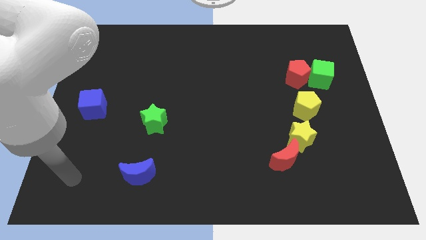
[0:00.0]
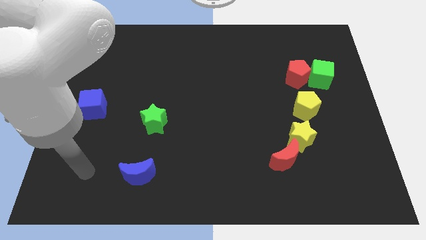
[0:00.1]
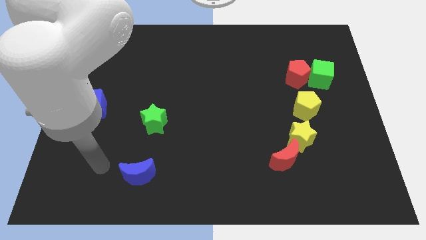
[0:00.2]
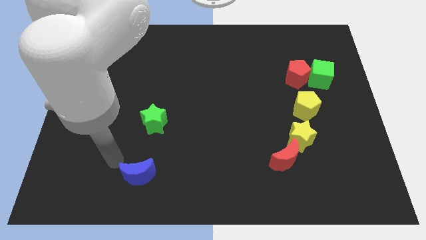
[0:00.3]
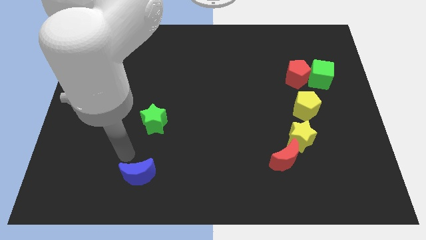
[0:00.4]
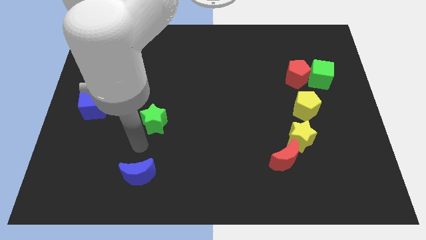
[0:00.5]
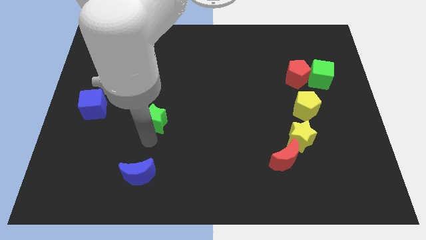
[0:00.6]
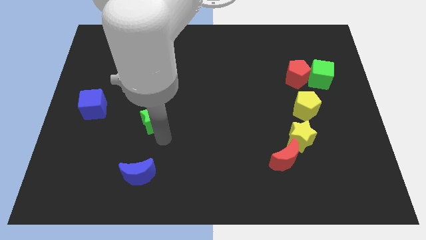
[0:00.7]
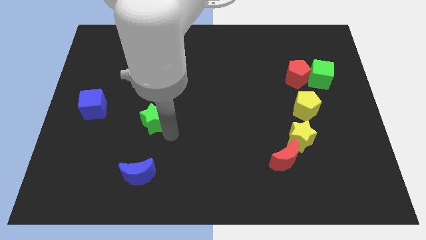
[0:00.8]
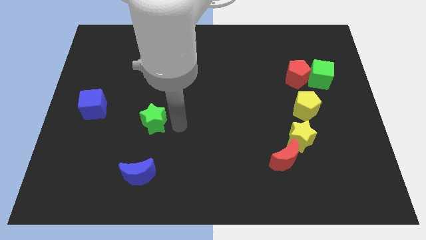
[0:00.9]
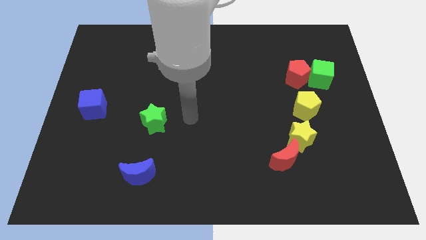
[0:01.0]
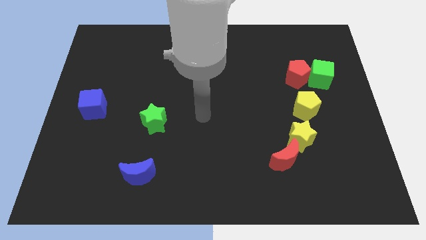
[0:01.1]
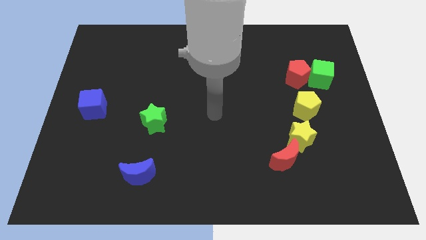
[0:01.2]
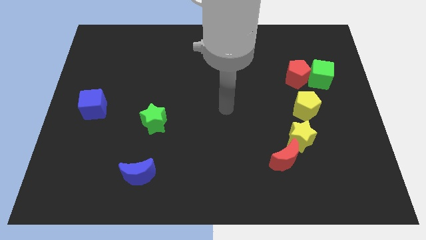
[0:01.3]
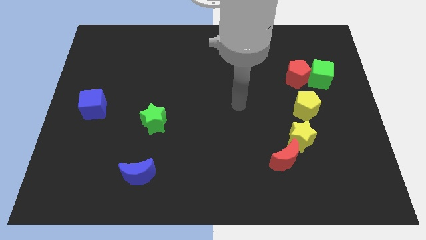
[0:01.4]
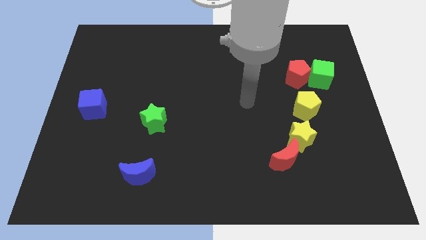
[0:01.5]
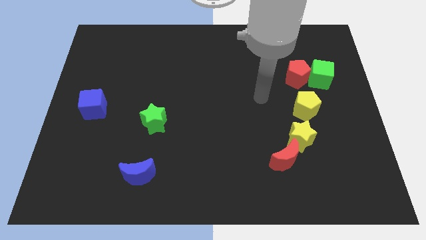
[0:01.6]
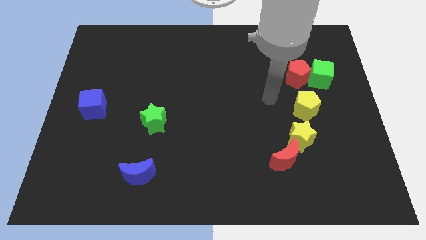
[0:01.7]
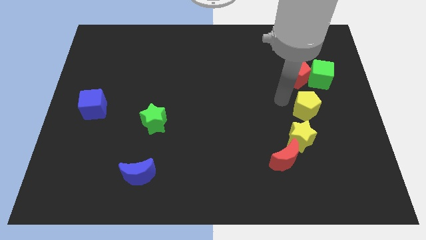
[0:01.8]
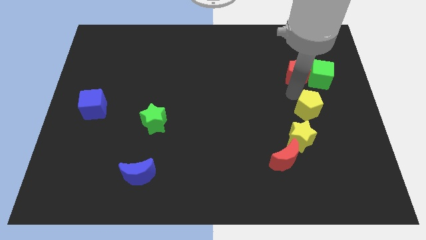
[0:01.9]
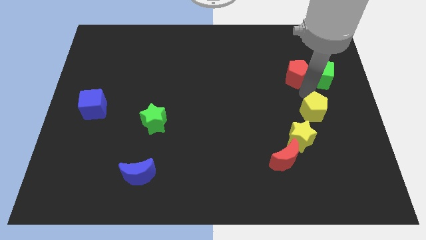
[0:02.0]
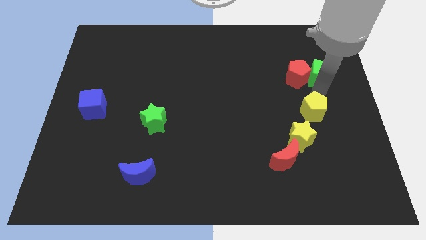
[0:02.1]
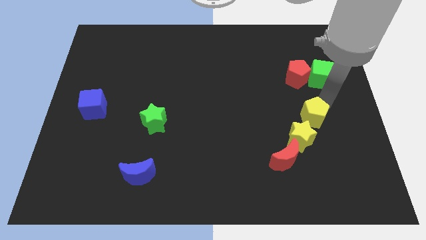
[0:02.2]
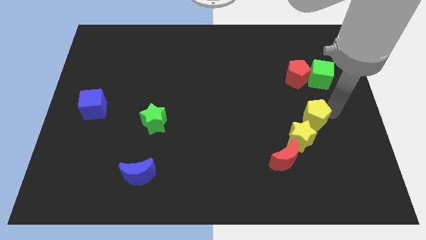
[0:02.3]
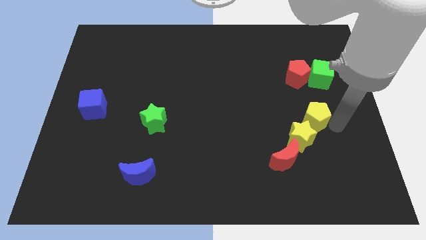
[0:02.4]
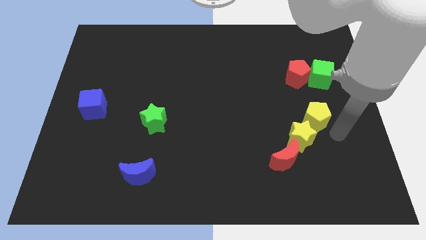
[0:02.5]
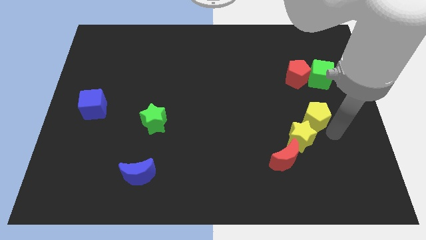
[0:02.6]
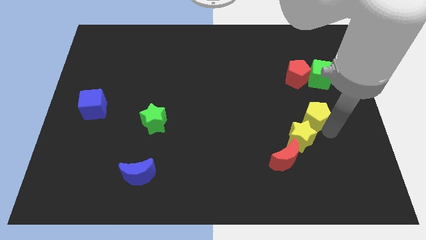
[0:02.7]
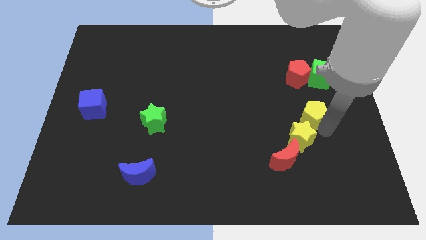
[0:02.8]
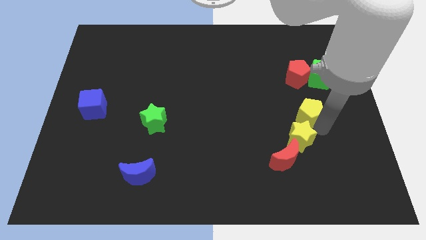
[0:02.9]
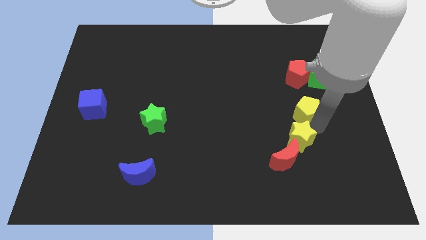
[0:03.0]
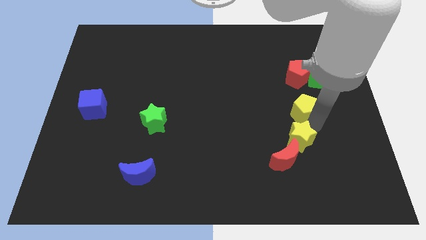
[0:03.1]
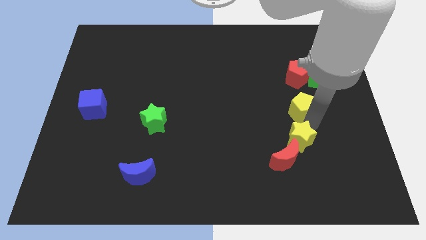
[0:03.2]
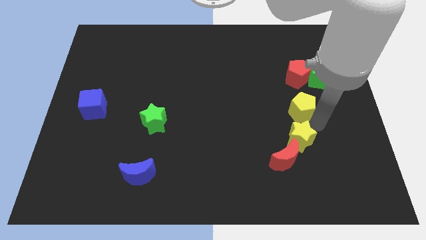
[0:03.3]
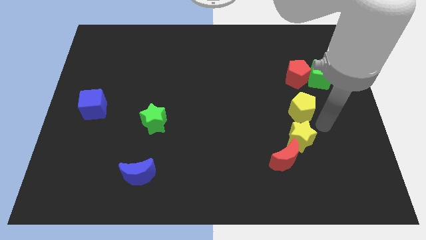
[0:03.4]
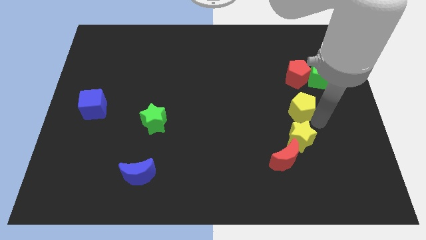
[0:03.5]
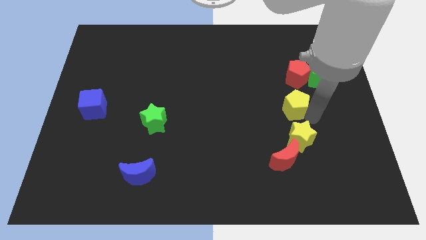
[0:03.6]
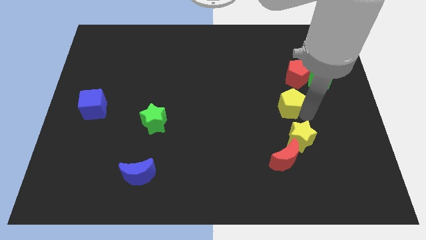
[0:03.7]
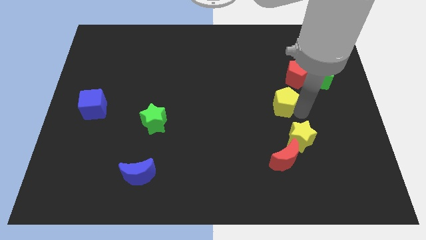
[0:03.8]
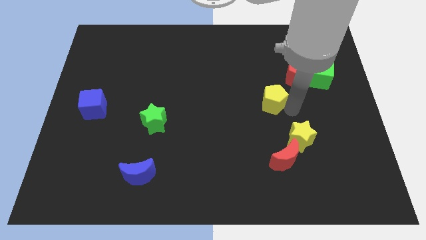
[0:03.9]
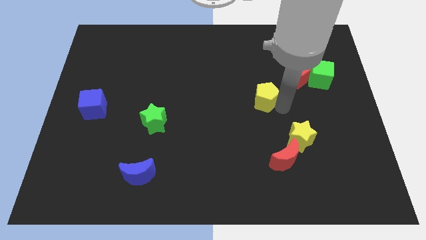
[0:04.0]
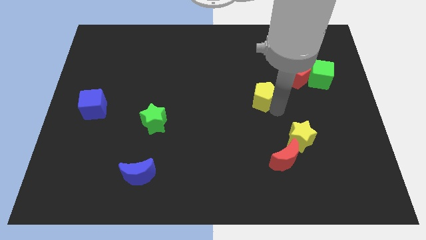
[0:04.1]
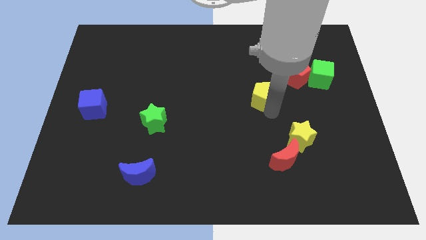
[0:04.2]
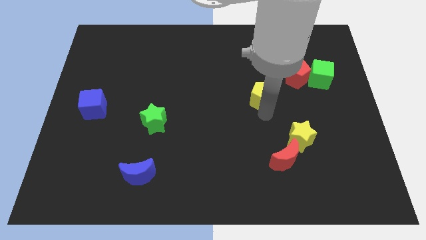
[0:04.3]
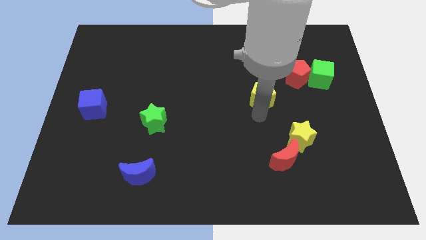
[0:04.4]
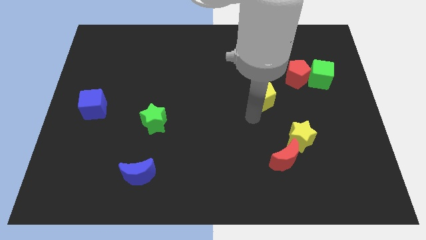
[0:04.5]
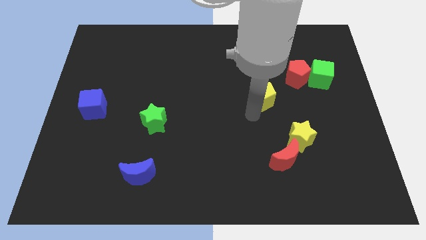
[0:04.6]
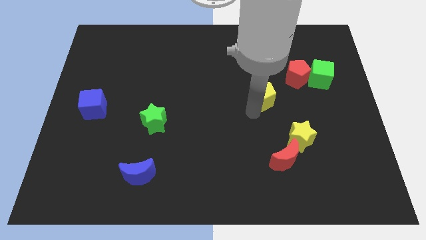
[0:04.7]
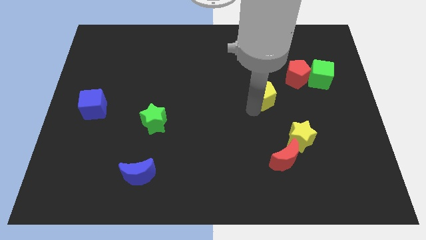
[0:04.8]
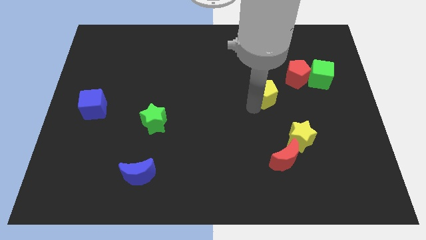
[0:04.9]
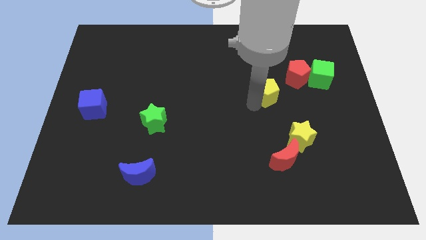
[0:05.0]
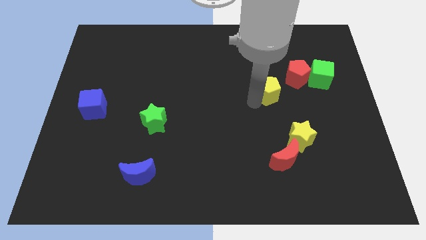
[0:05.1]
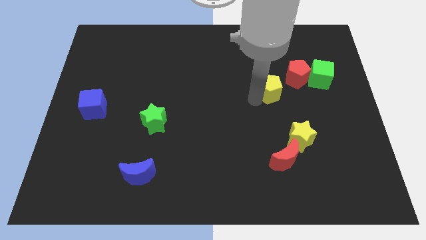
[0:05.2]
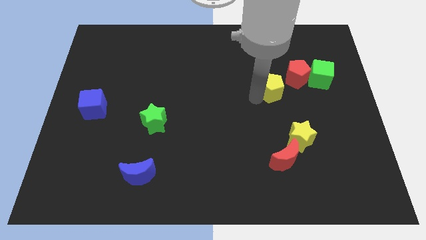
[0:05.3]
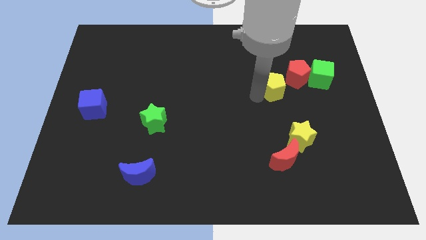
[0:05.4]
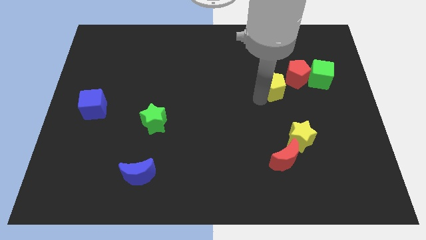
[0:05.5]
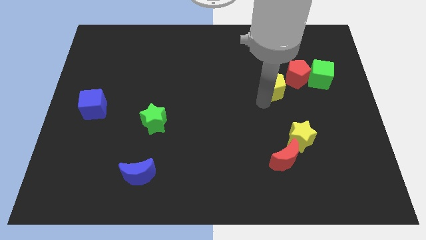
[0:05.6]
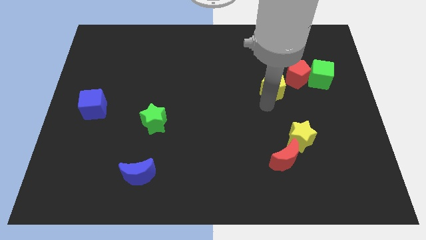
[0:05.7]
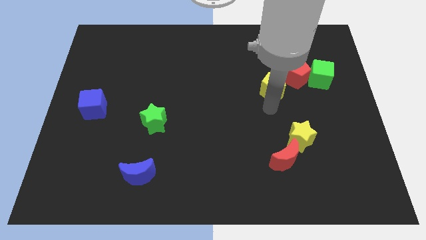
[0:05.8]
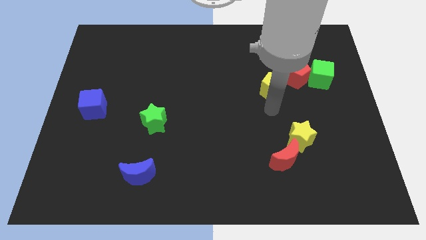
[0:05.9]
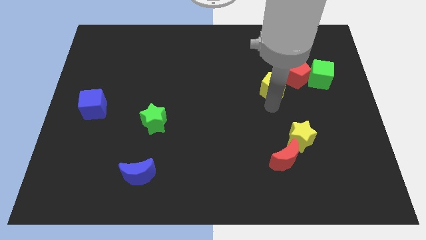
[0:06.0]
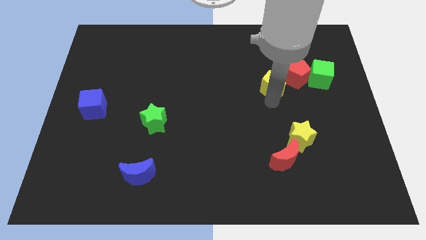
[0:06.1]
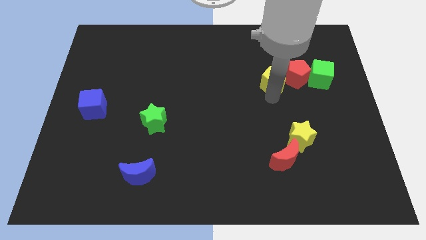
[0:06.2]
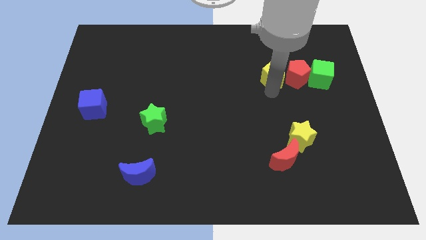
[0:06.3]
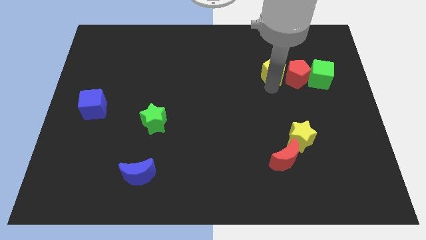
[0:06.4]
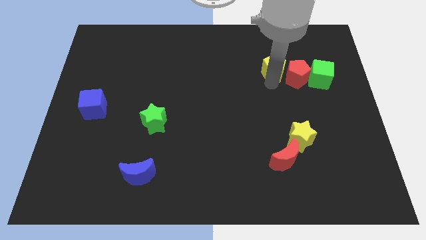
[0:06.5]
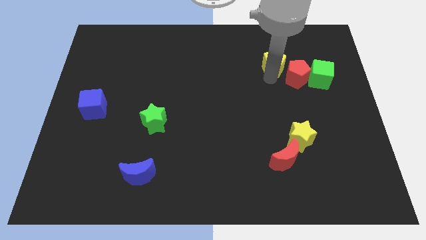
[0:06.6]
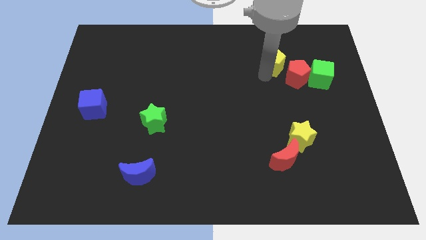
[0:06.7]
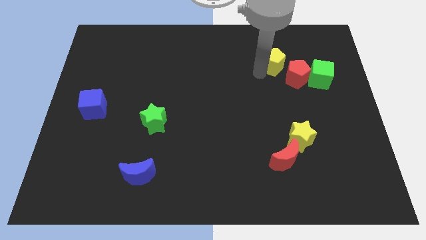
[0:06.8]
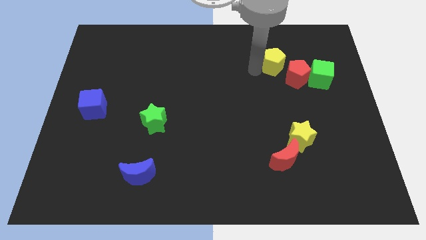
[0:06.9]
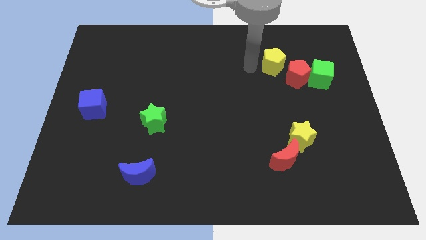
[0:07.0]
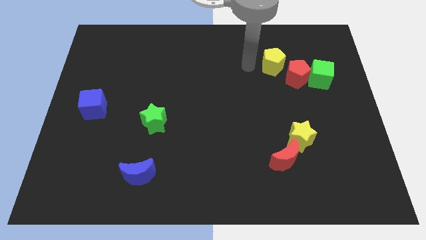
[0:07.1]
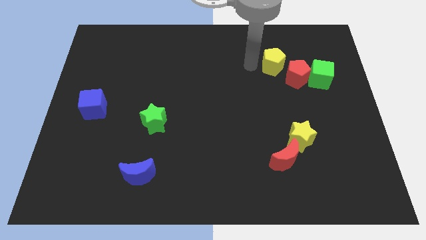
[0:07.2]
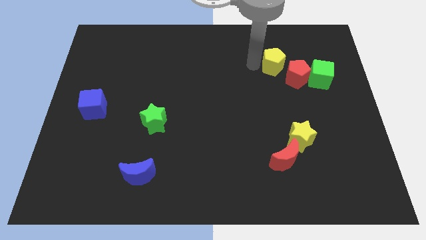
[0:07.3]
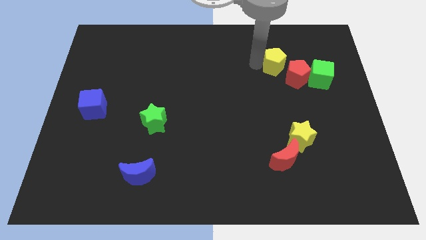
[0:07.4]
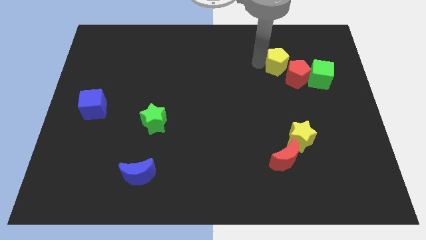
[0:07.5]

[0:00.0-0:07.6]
slide the yellow pentagon to the top left side of the green cube
